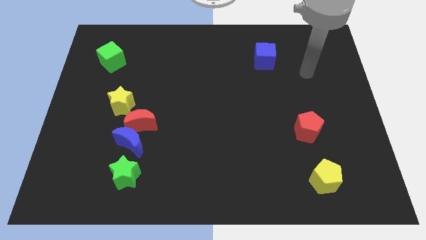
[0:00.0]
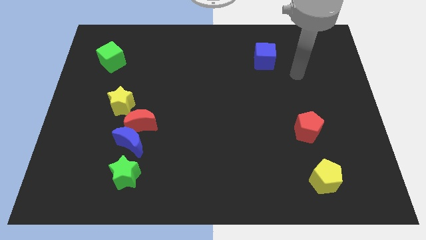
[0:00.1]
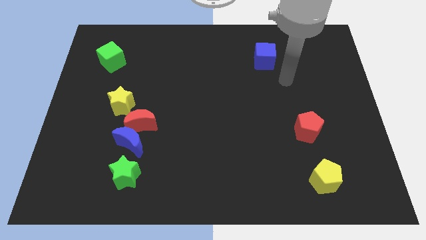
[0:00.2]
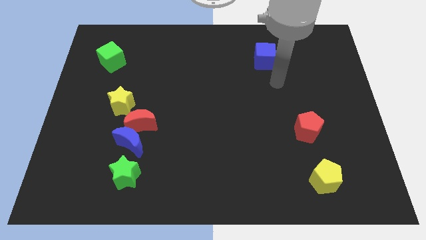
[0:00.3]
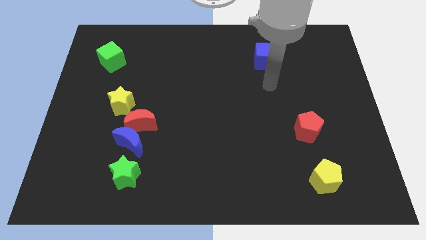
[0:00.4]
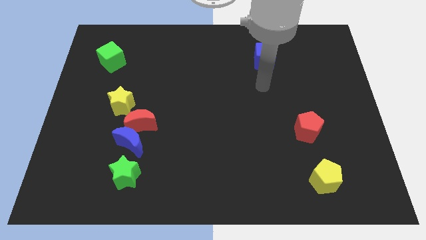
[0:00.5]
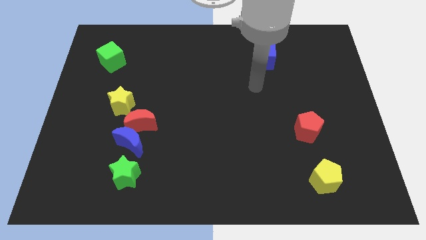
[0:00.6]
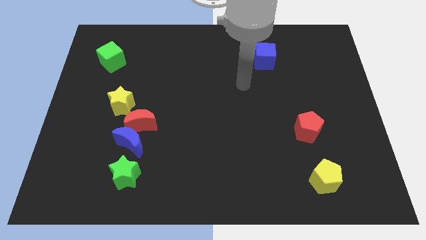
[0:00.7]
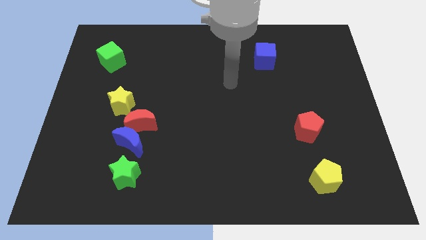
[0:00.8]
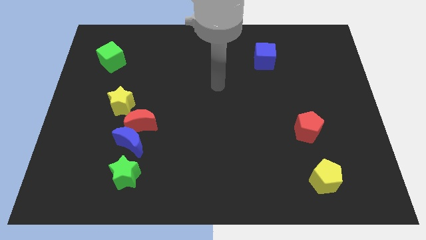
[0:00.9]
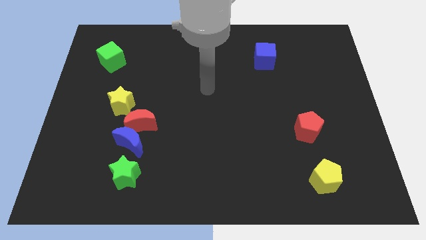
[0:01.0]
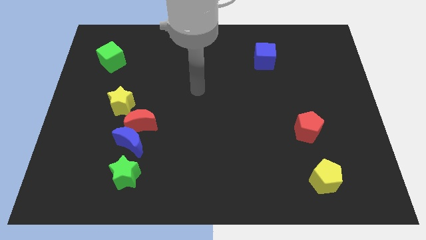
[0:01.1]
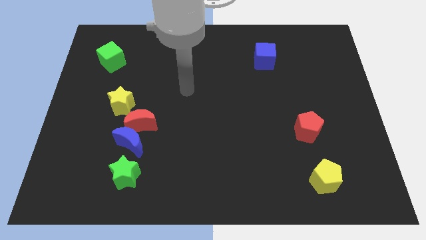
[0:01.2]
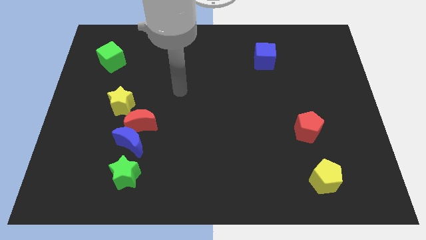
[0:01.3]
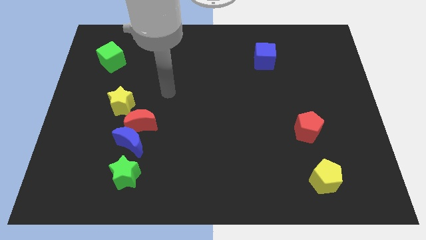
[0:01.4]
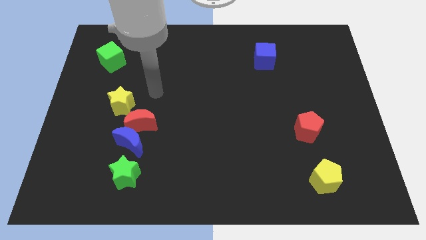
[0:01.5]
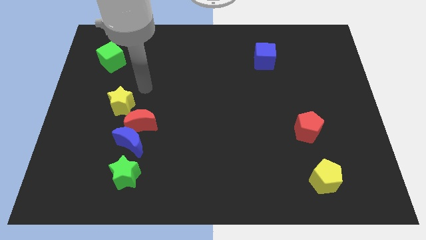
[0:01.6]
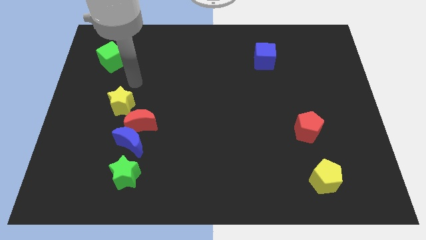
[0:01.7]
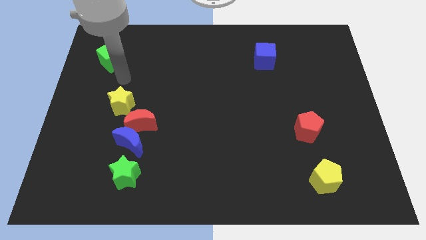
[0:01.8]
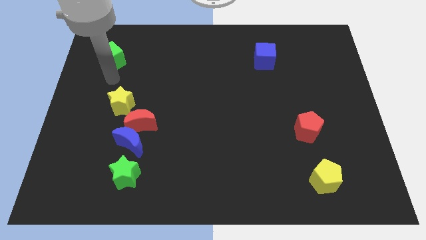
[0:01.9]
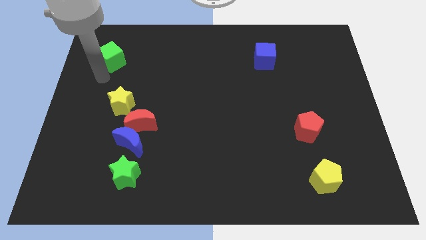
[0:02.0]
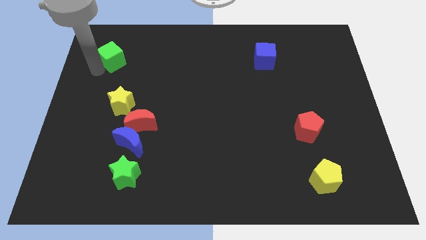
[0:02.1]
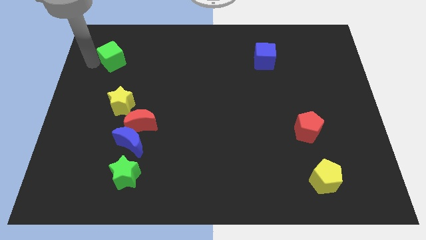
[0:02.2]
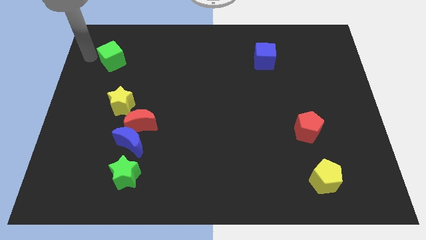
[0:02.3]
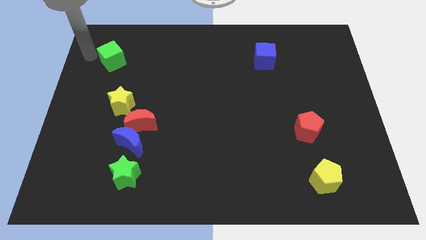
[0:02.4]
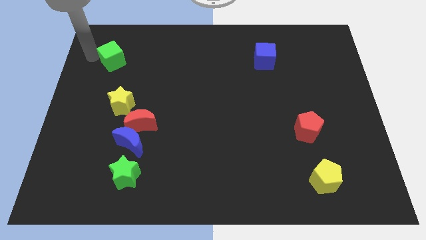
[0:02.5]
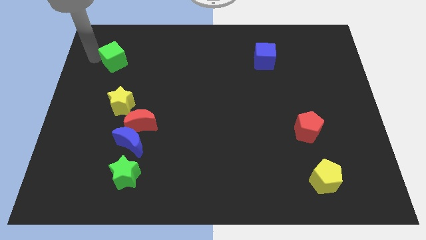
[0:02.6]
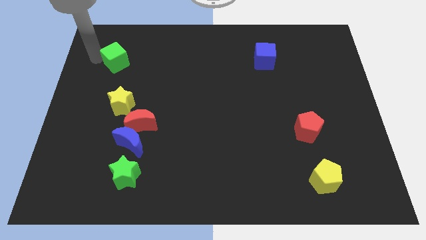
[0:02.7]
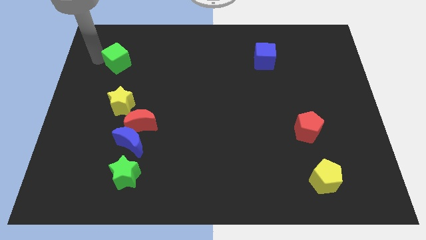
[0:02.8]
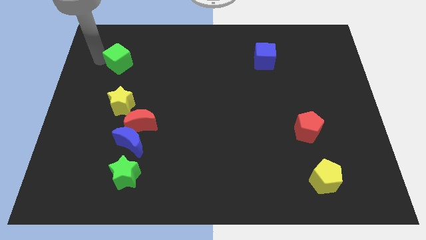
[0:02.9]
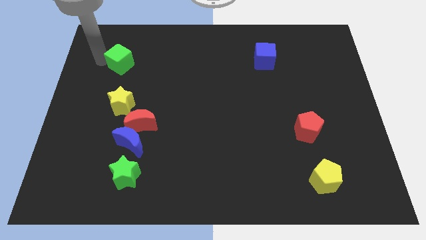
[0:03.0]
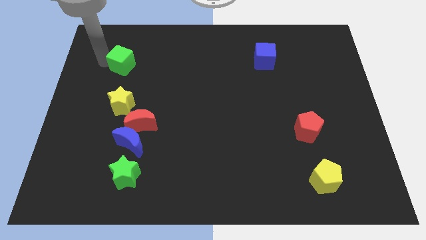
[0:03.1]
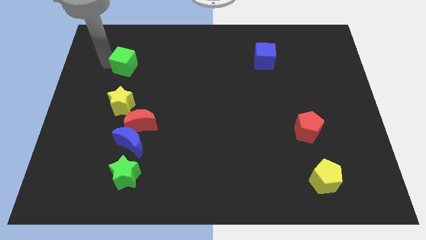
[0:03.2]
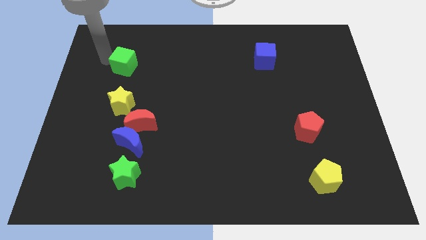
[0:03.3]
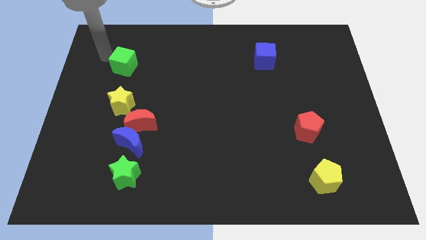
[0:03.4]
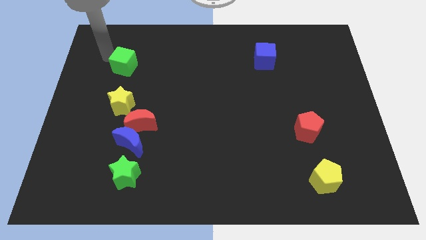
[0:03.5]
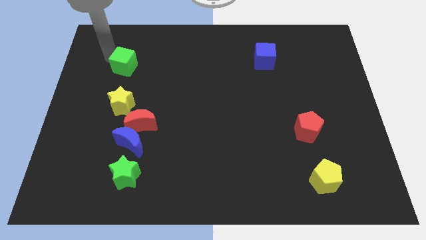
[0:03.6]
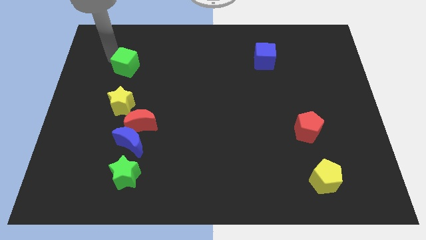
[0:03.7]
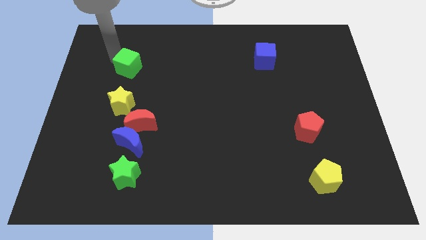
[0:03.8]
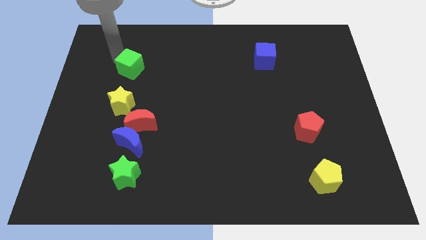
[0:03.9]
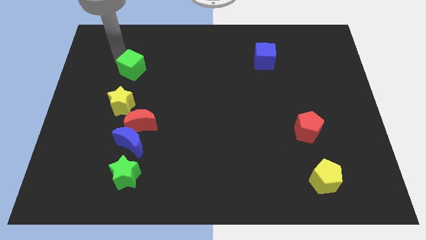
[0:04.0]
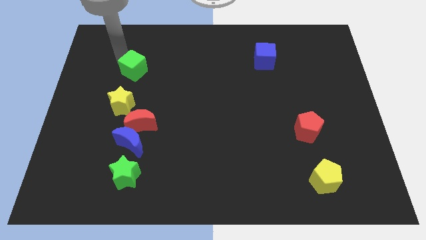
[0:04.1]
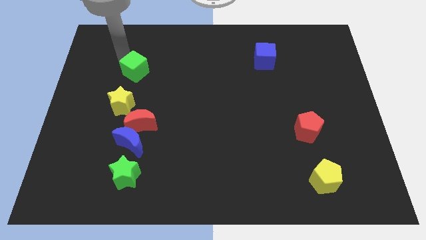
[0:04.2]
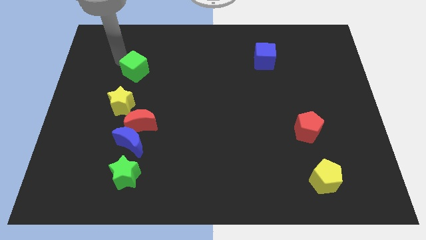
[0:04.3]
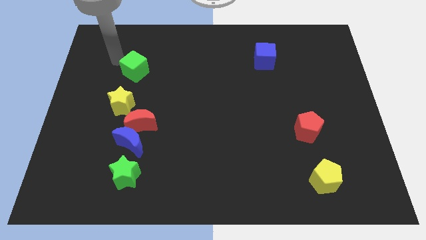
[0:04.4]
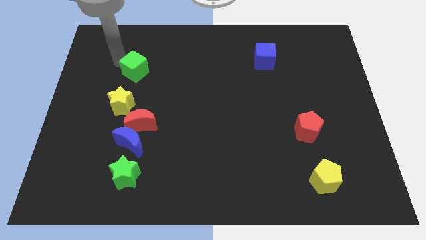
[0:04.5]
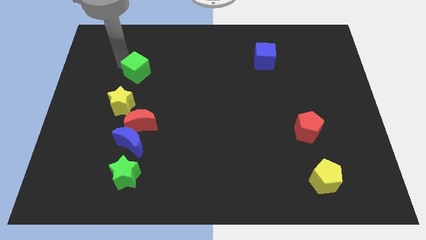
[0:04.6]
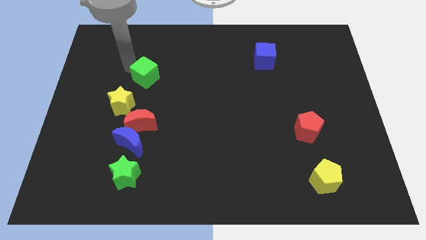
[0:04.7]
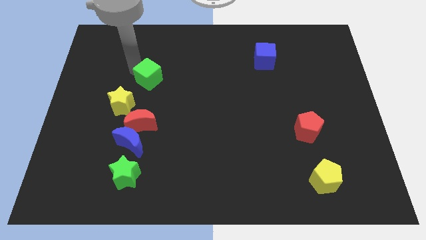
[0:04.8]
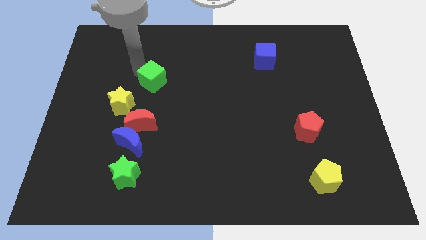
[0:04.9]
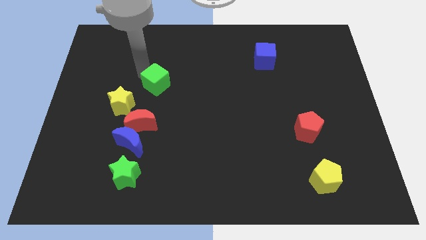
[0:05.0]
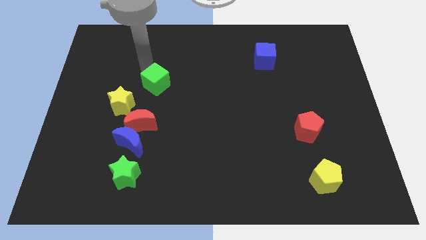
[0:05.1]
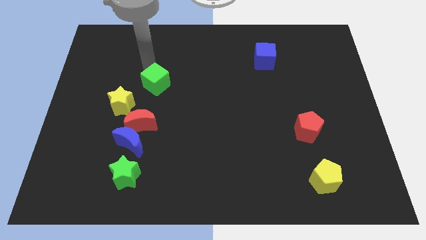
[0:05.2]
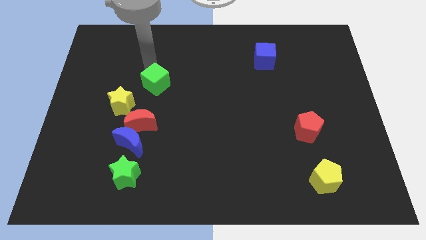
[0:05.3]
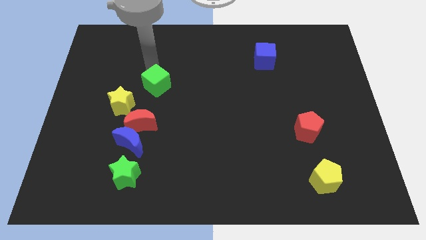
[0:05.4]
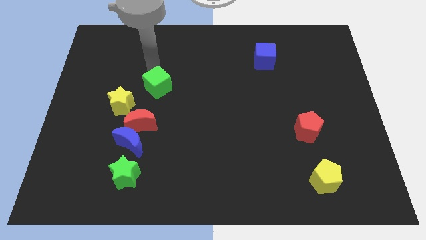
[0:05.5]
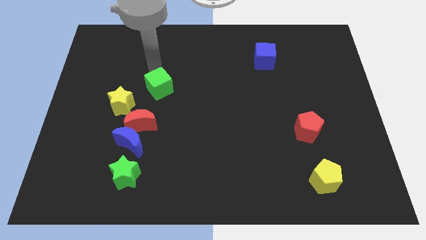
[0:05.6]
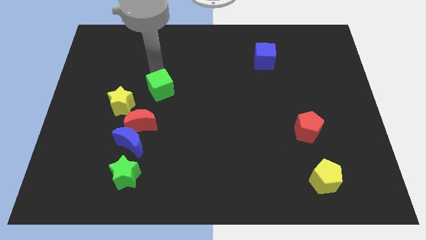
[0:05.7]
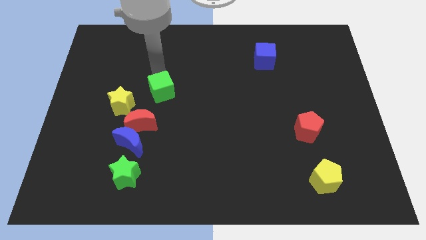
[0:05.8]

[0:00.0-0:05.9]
move the green cube diagonally up and to the right of the red moon

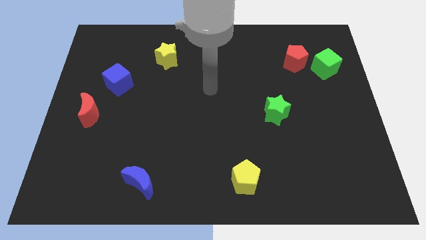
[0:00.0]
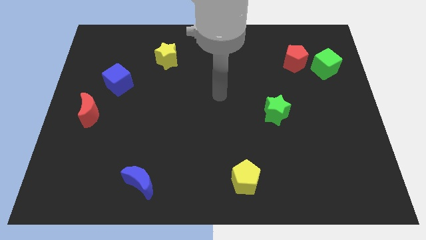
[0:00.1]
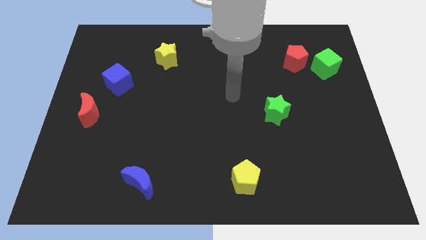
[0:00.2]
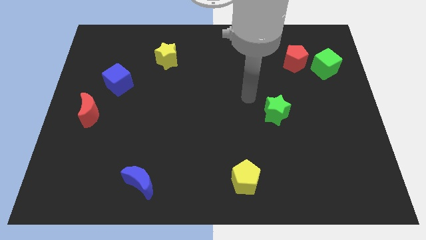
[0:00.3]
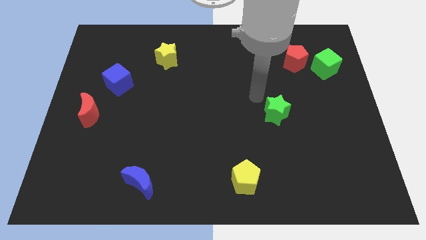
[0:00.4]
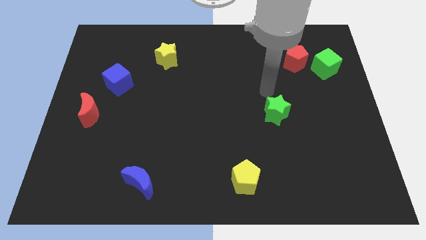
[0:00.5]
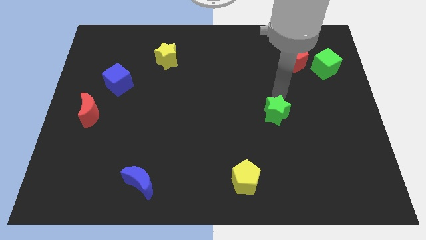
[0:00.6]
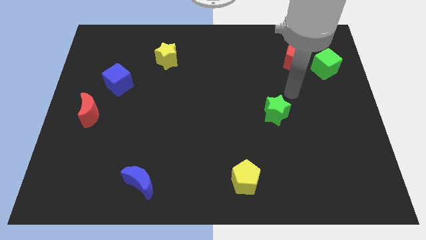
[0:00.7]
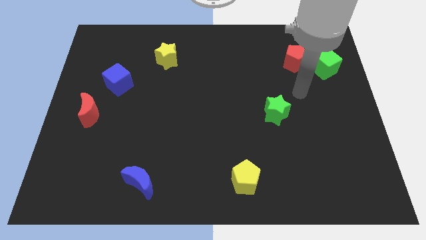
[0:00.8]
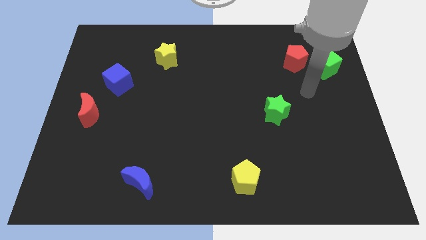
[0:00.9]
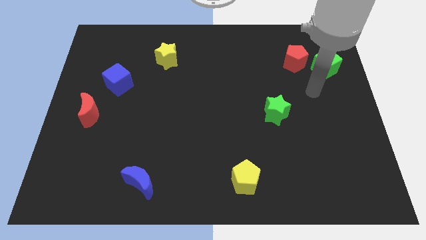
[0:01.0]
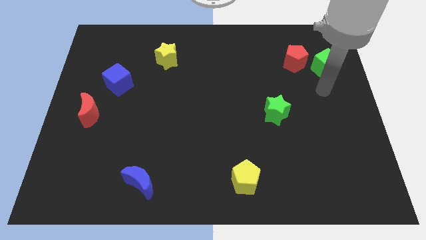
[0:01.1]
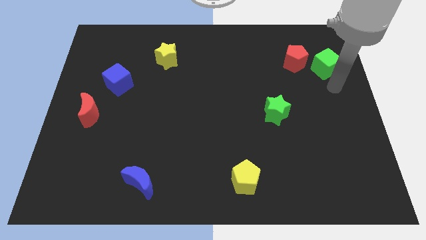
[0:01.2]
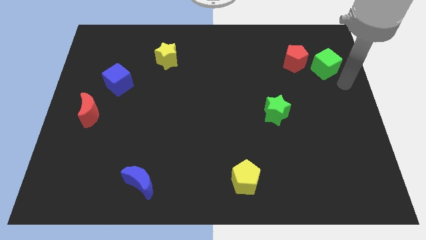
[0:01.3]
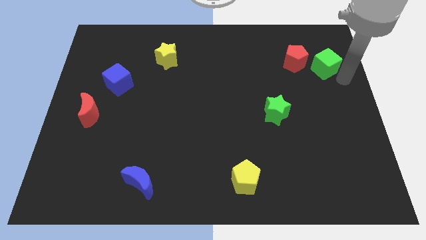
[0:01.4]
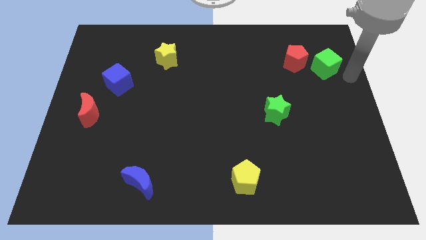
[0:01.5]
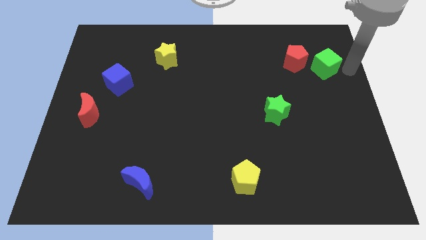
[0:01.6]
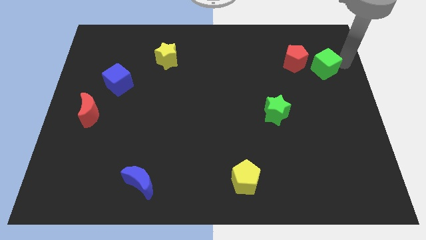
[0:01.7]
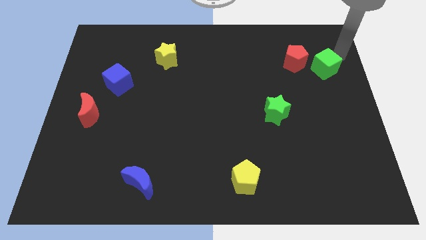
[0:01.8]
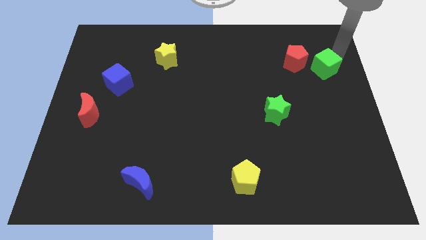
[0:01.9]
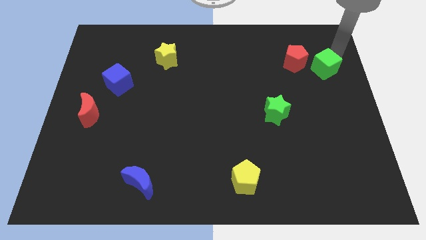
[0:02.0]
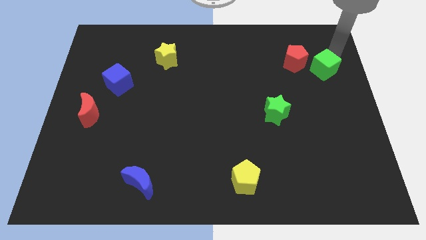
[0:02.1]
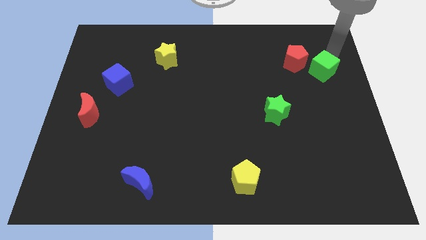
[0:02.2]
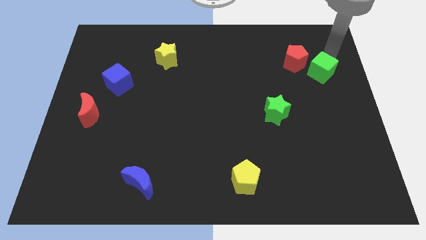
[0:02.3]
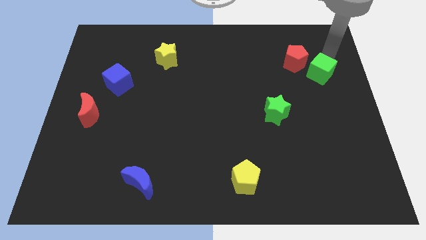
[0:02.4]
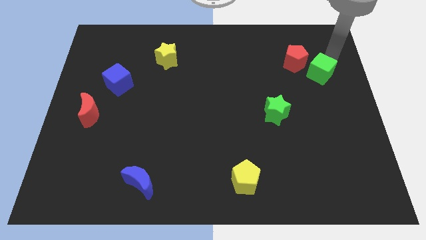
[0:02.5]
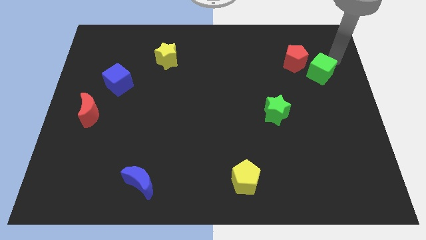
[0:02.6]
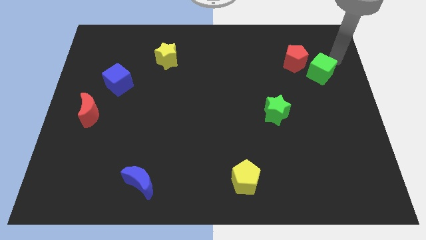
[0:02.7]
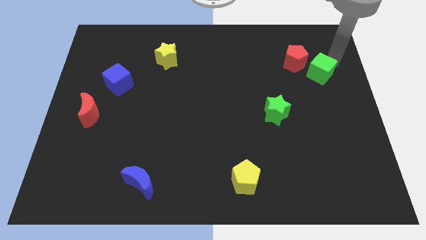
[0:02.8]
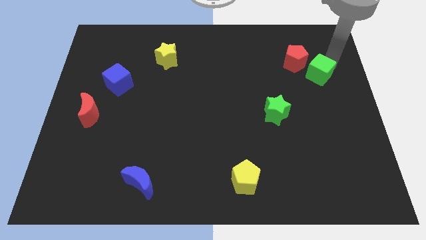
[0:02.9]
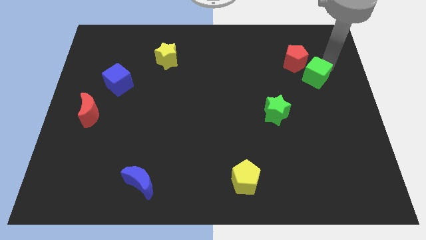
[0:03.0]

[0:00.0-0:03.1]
put the green cube to the bottom of the red pentagon
